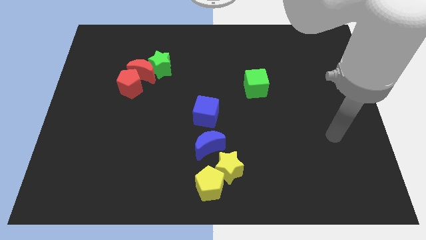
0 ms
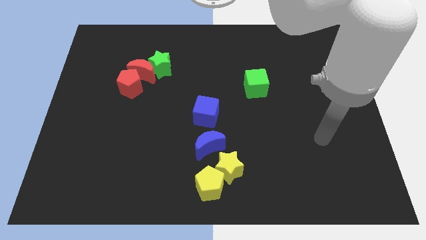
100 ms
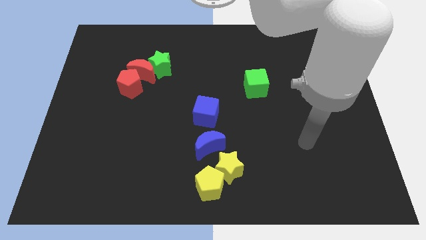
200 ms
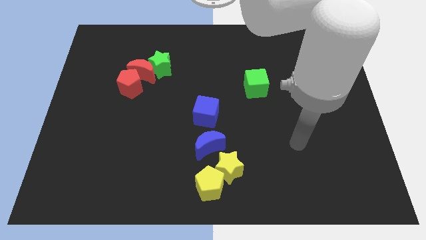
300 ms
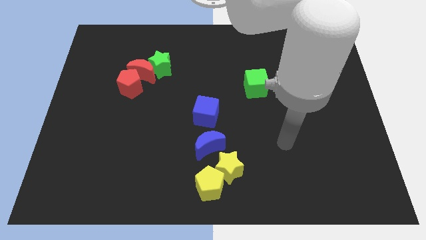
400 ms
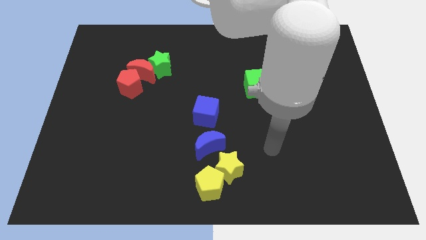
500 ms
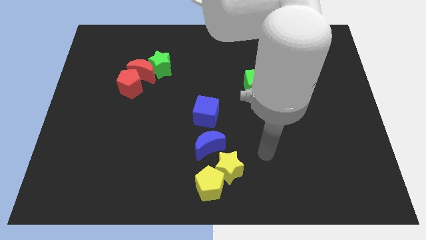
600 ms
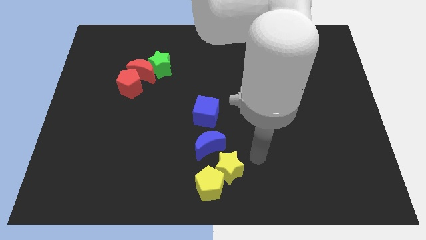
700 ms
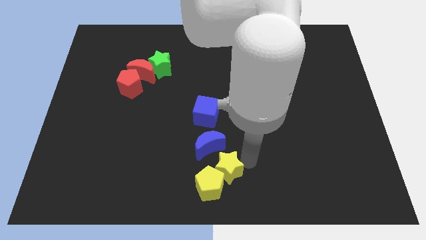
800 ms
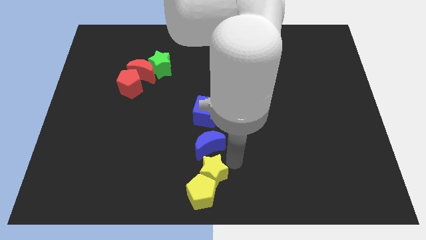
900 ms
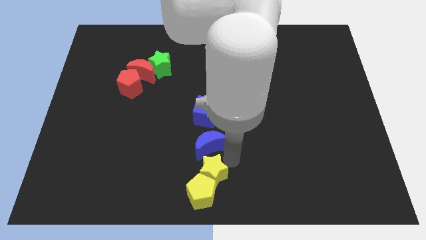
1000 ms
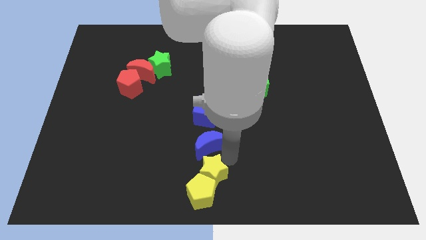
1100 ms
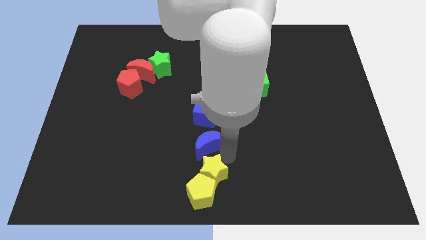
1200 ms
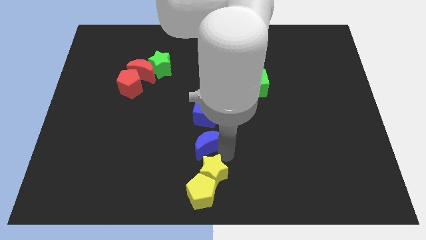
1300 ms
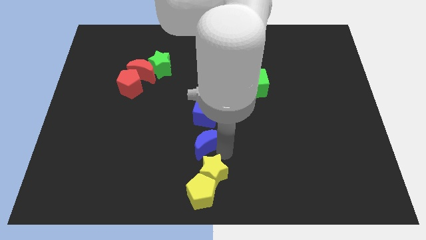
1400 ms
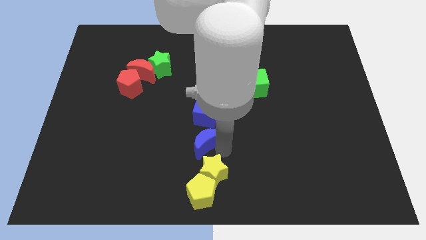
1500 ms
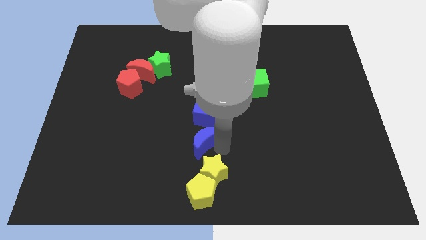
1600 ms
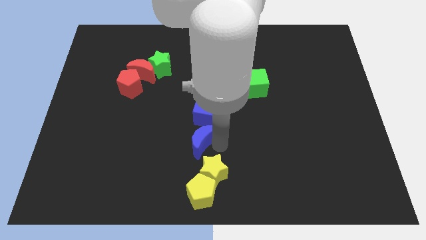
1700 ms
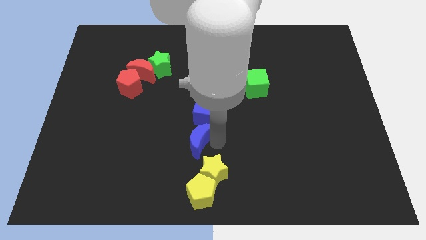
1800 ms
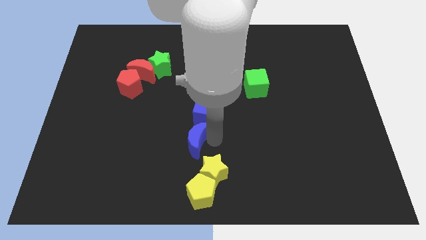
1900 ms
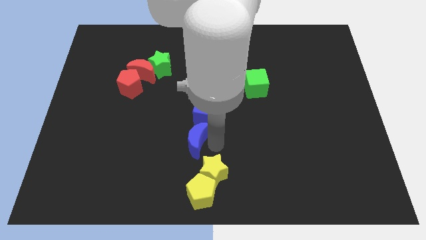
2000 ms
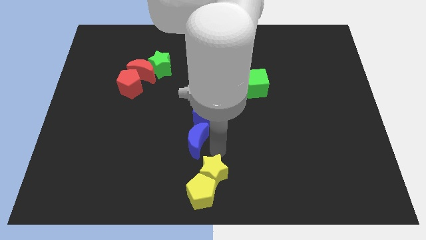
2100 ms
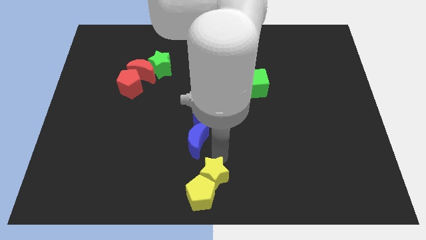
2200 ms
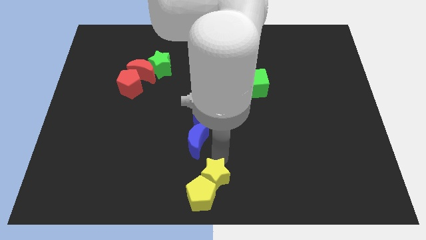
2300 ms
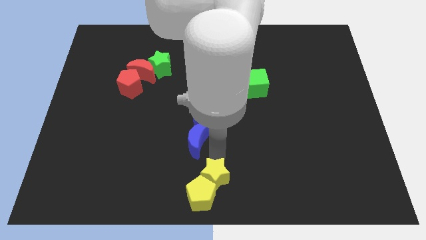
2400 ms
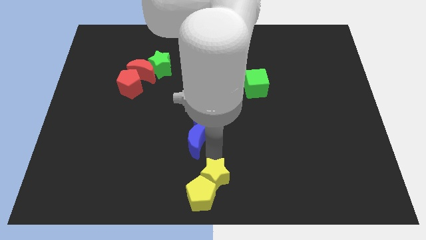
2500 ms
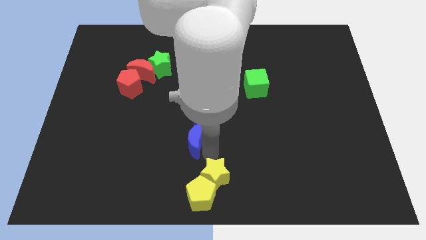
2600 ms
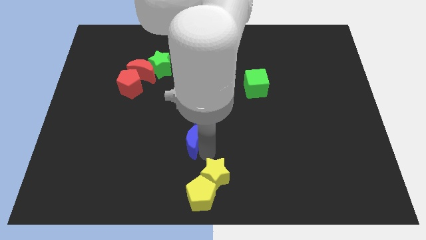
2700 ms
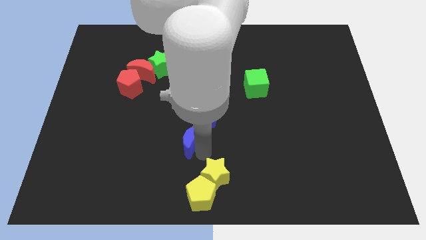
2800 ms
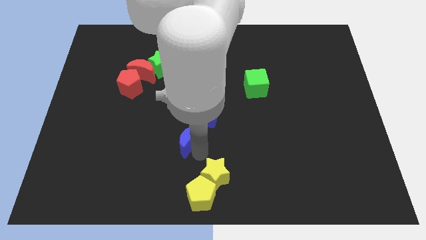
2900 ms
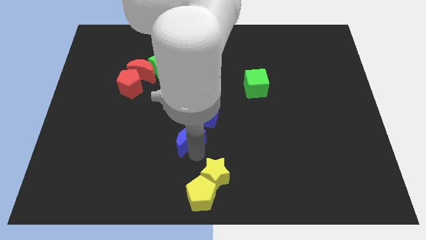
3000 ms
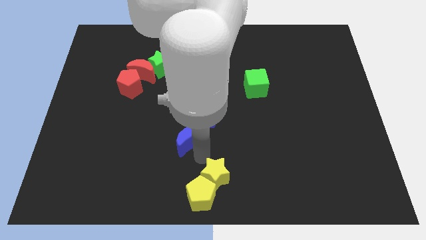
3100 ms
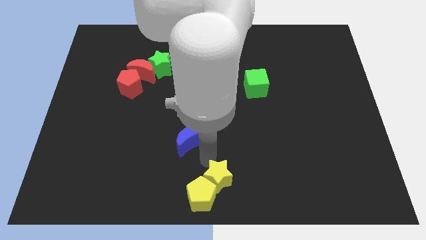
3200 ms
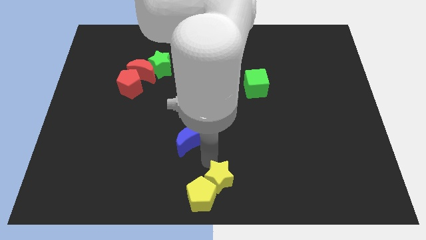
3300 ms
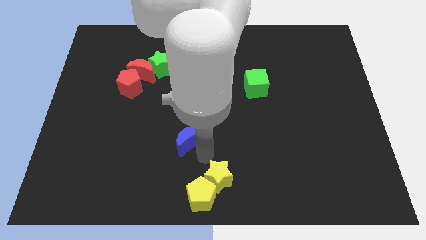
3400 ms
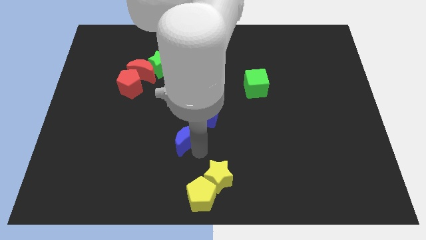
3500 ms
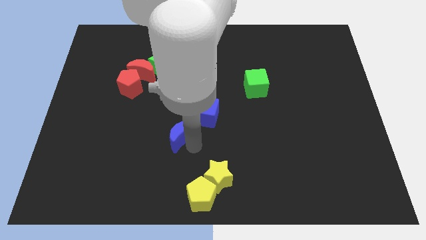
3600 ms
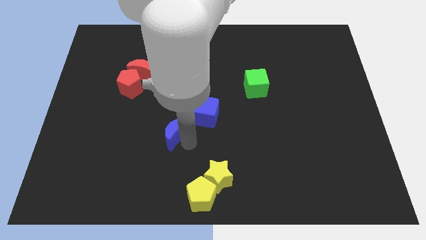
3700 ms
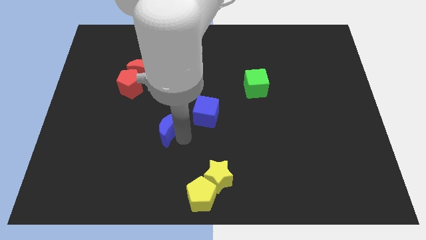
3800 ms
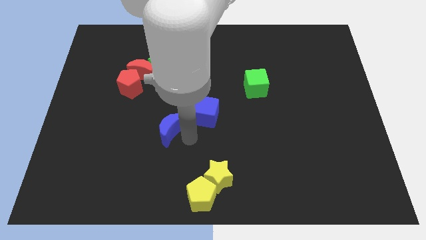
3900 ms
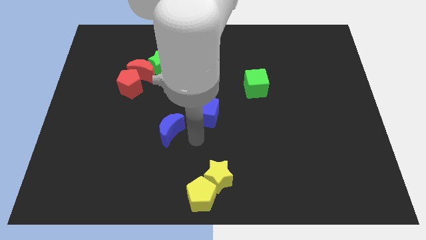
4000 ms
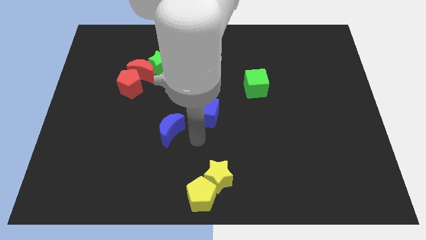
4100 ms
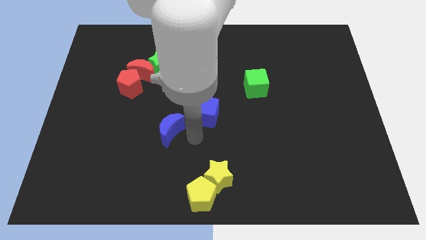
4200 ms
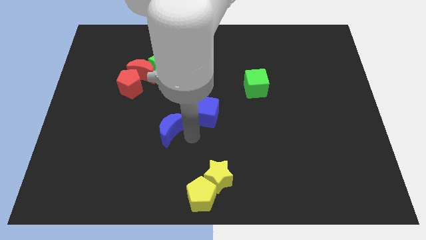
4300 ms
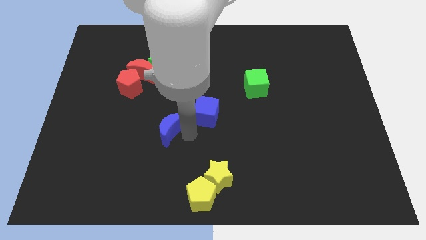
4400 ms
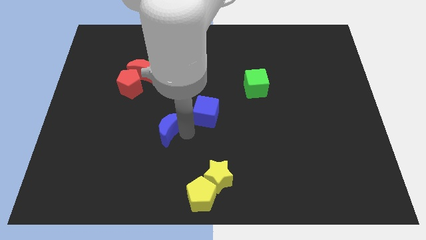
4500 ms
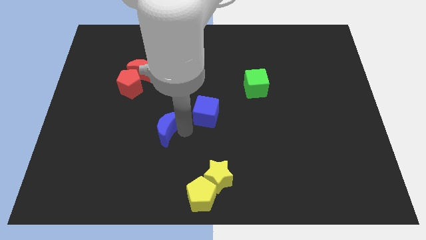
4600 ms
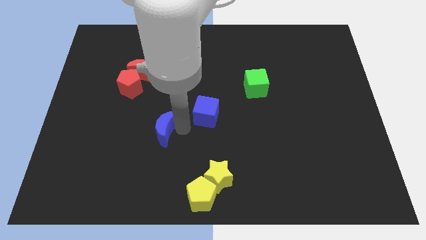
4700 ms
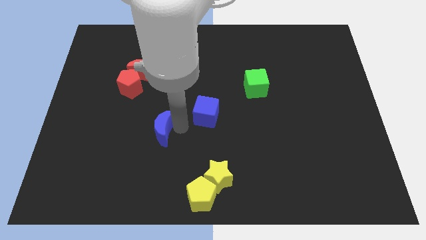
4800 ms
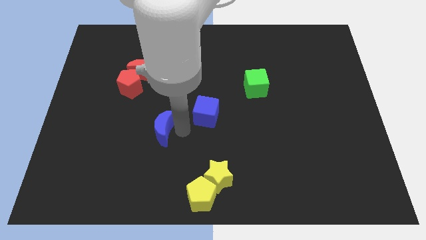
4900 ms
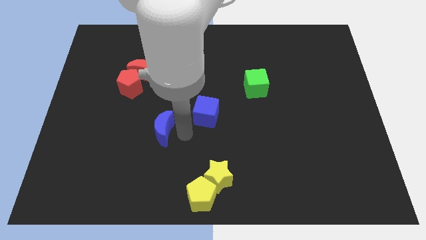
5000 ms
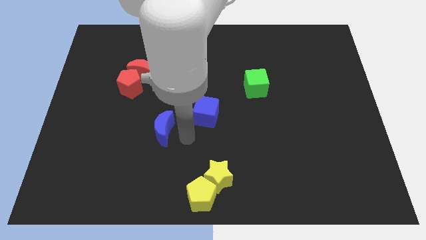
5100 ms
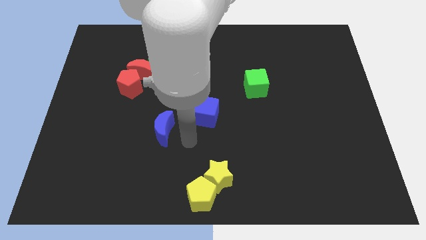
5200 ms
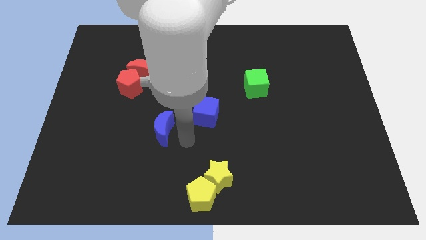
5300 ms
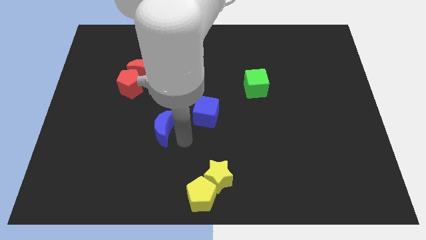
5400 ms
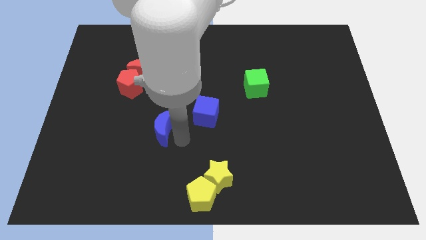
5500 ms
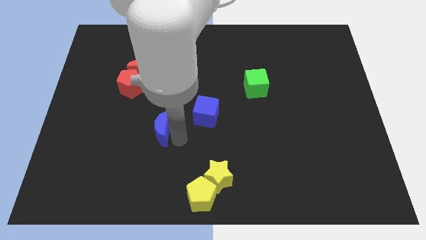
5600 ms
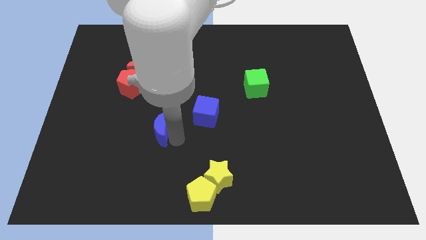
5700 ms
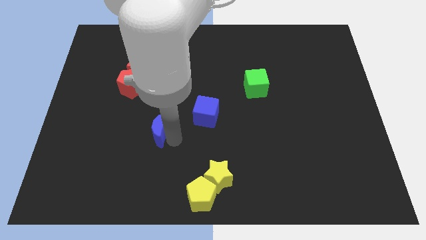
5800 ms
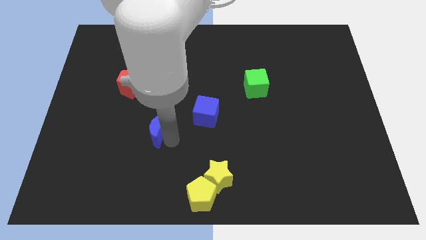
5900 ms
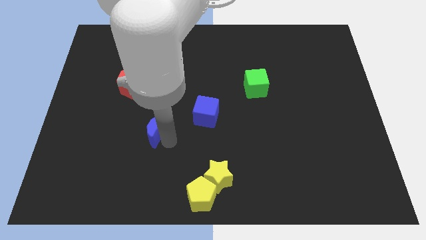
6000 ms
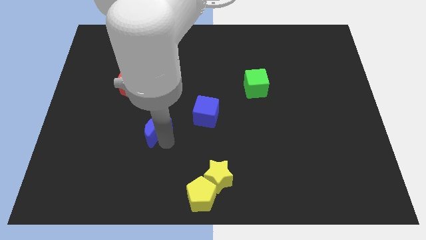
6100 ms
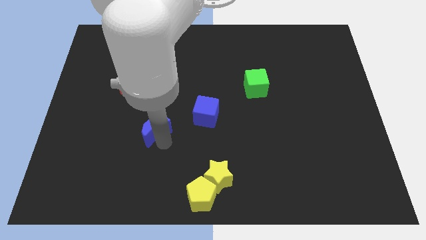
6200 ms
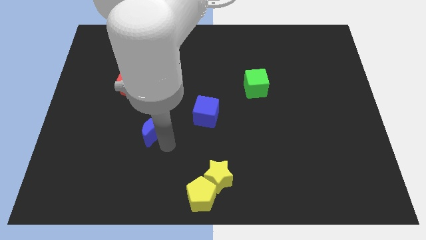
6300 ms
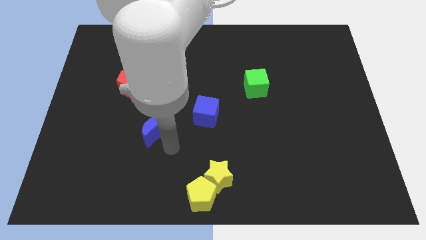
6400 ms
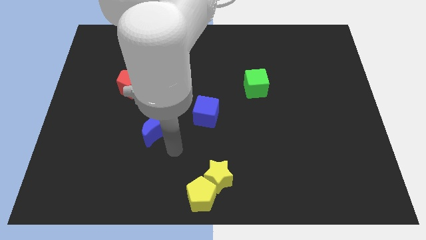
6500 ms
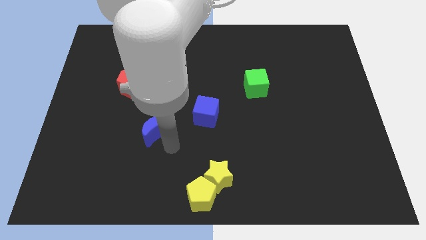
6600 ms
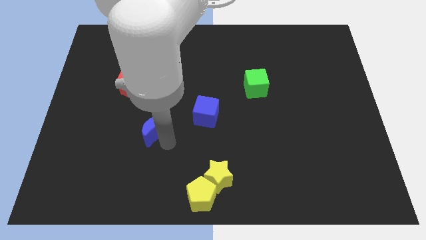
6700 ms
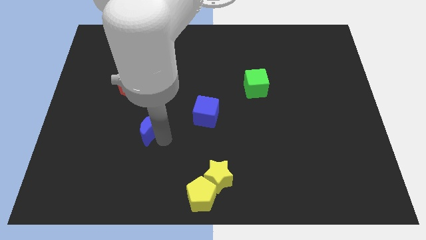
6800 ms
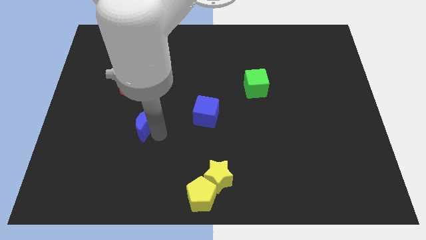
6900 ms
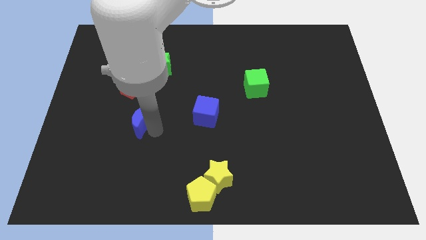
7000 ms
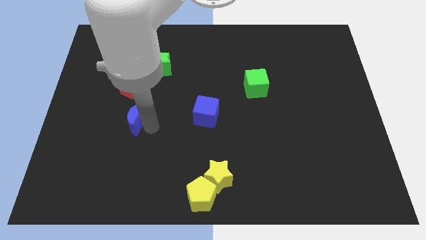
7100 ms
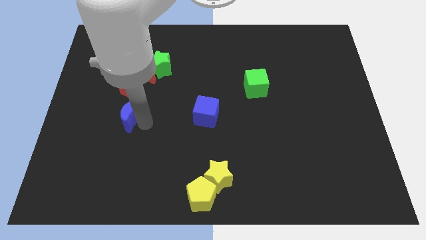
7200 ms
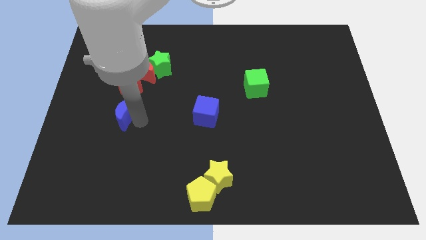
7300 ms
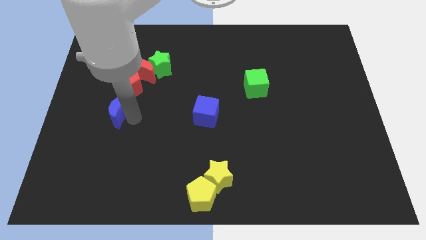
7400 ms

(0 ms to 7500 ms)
push the blue moon to the bottom left side of the red pentagon

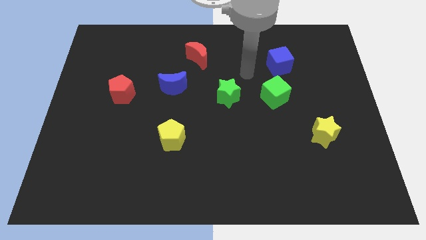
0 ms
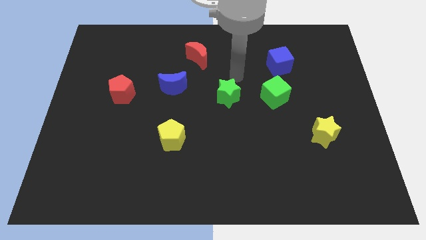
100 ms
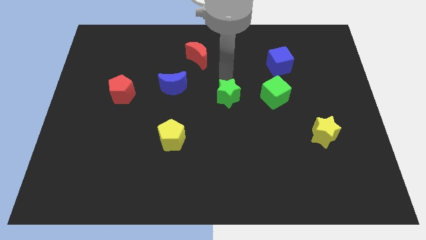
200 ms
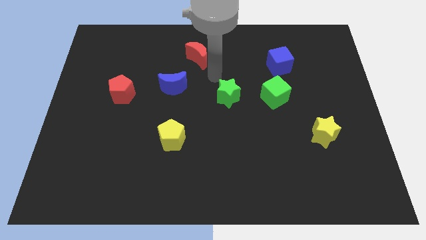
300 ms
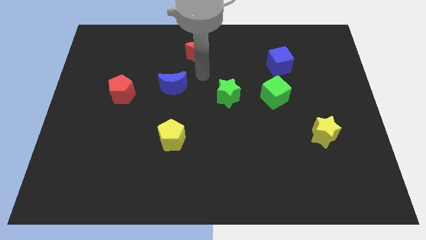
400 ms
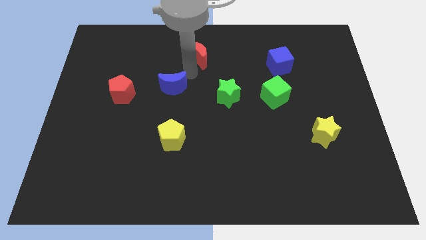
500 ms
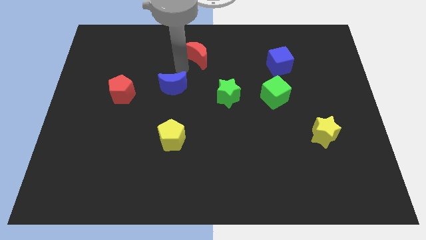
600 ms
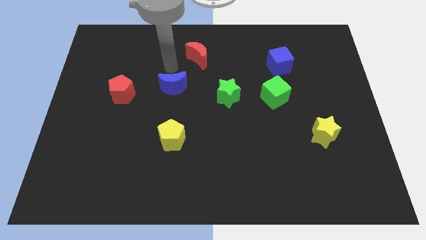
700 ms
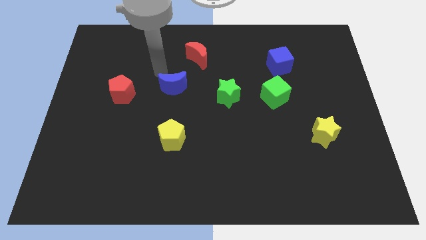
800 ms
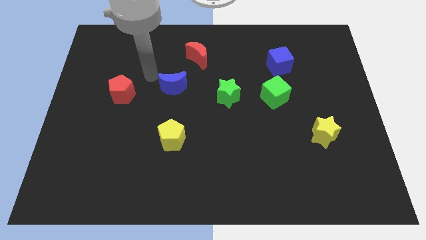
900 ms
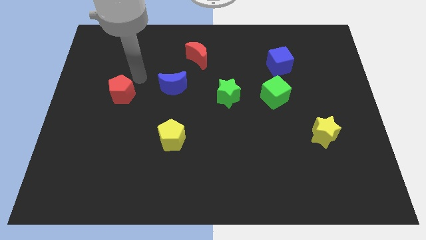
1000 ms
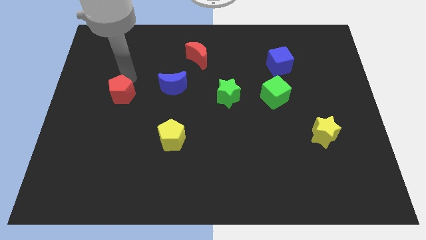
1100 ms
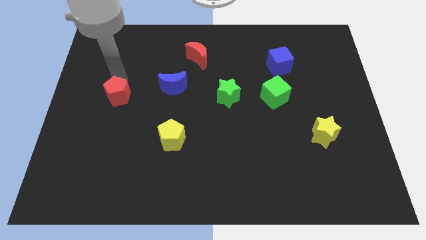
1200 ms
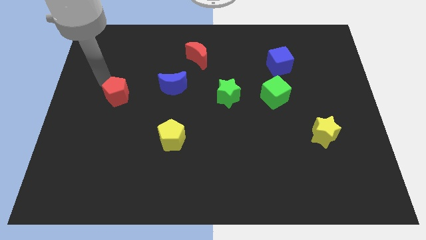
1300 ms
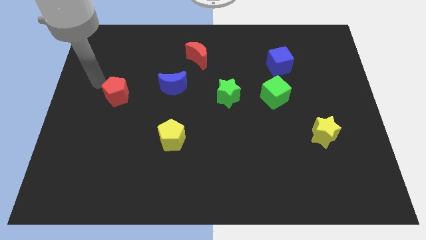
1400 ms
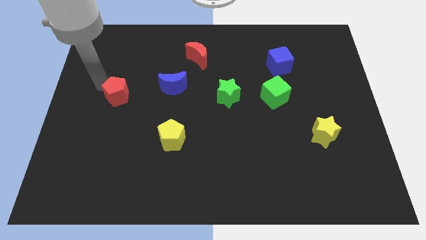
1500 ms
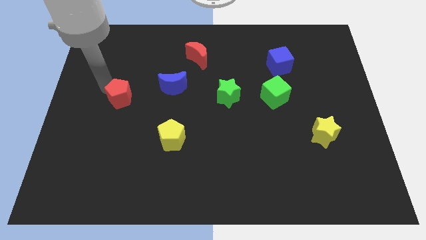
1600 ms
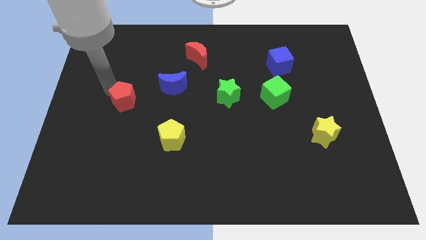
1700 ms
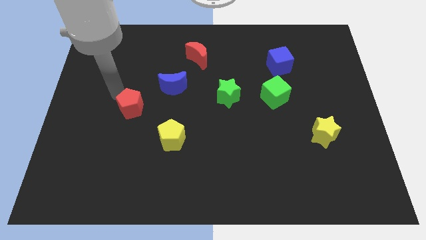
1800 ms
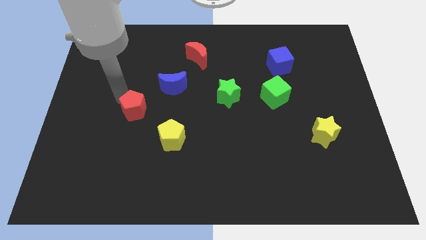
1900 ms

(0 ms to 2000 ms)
slide the red pentagon to the top left side of the yellow pentagon
